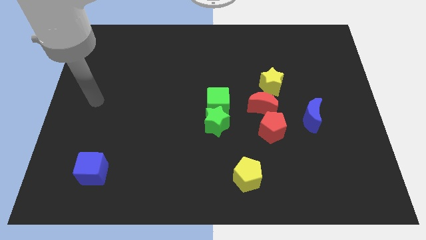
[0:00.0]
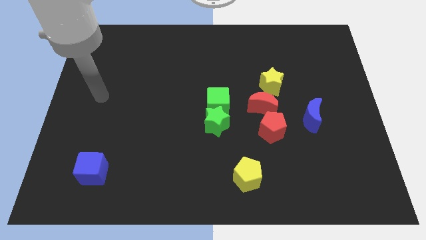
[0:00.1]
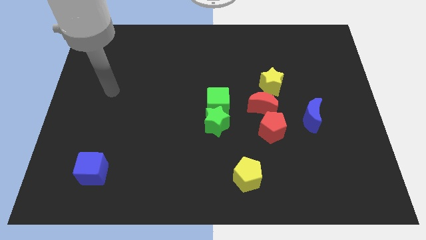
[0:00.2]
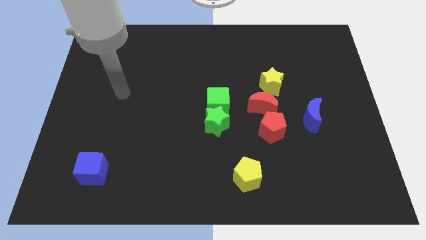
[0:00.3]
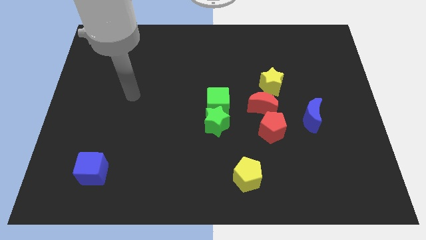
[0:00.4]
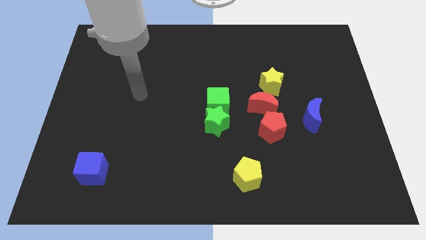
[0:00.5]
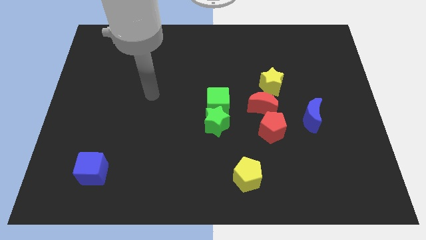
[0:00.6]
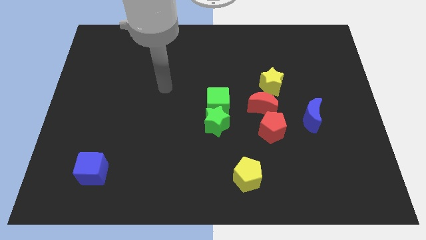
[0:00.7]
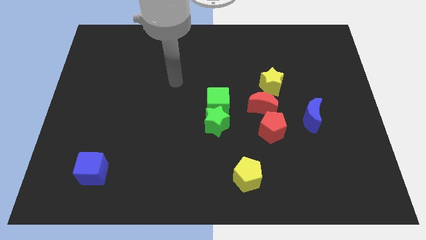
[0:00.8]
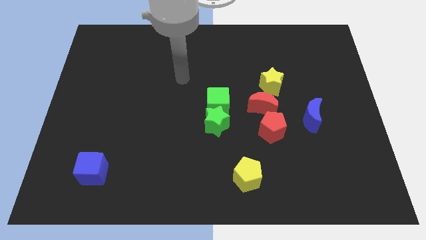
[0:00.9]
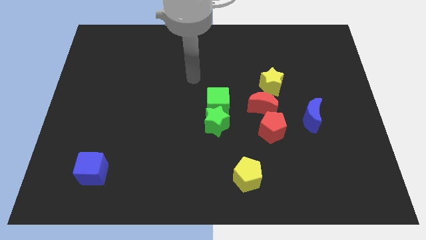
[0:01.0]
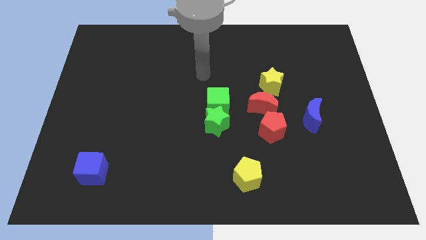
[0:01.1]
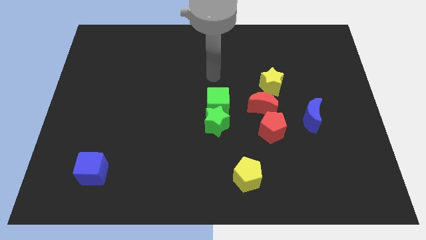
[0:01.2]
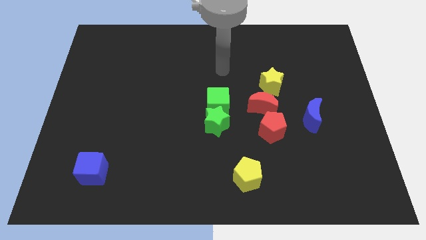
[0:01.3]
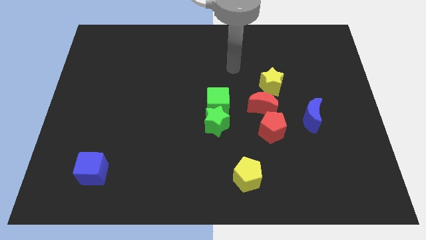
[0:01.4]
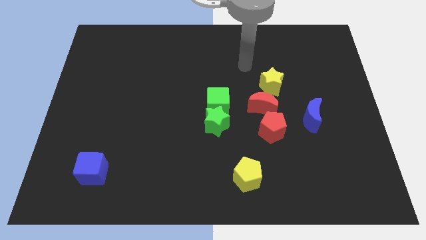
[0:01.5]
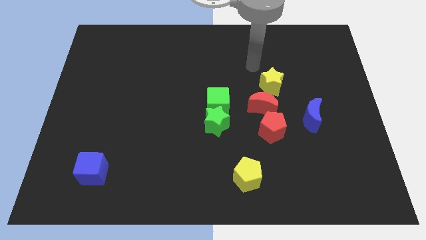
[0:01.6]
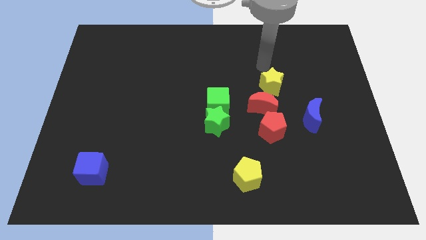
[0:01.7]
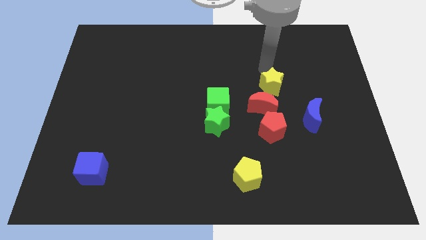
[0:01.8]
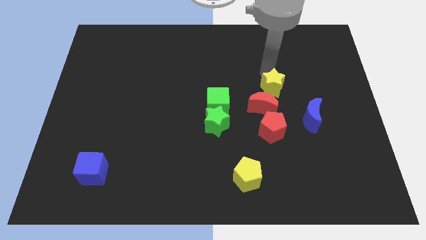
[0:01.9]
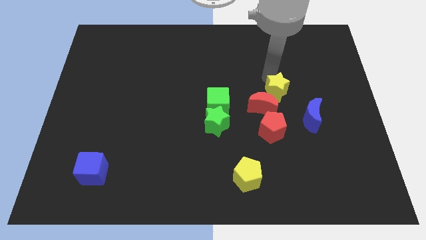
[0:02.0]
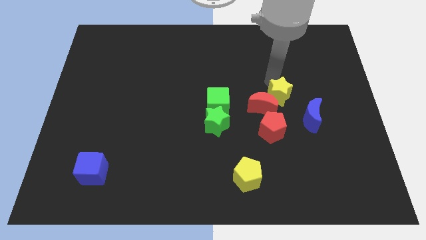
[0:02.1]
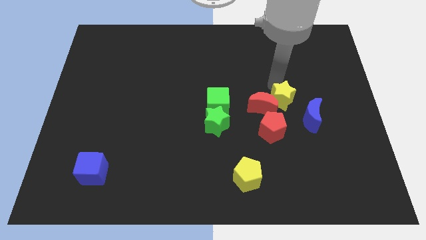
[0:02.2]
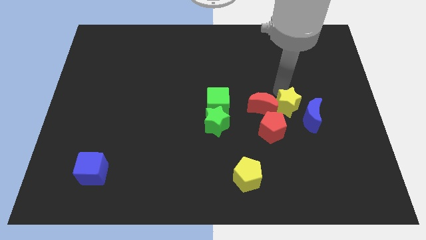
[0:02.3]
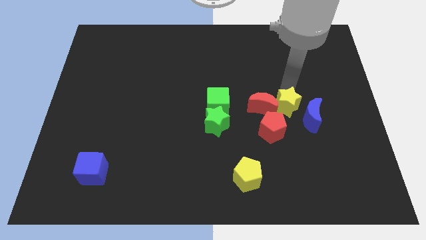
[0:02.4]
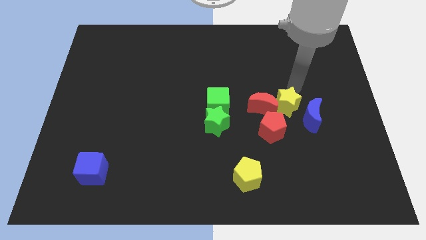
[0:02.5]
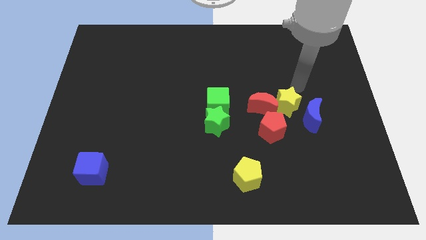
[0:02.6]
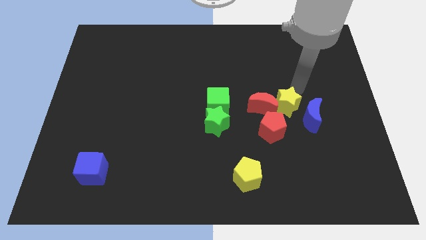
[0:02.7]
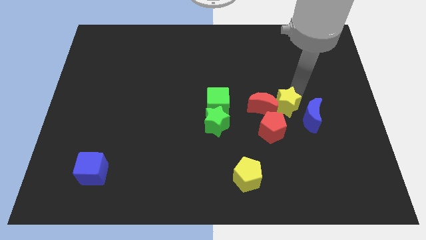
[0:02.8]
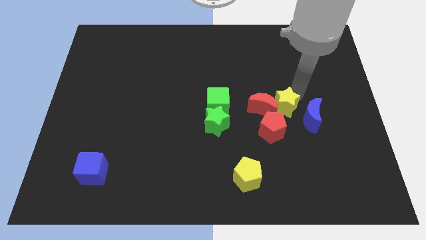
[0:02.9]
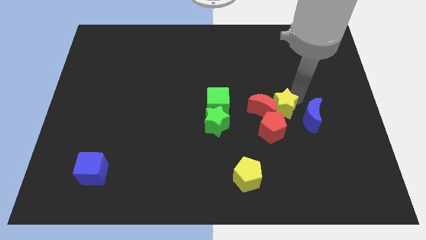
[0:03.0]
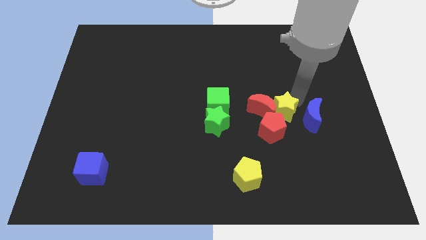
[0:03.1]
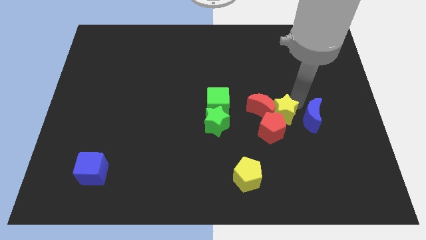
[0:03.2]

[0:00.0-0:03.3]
push the yellow star to the red pentagon

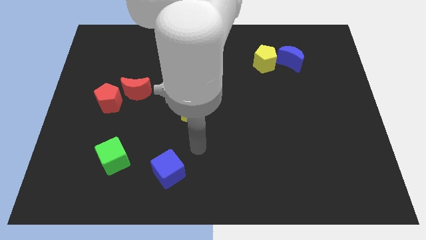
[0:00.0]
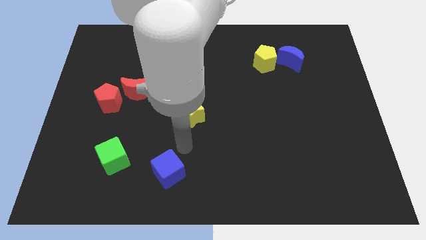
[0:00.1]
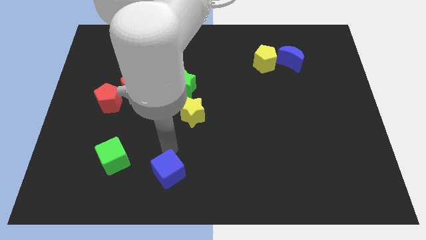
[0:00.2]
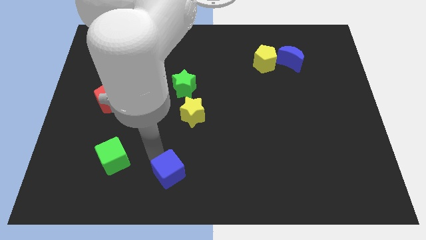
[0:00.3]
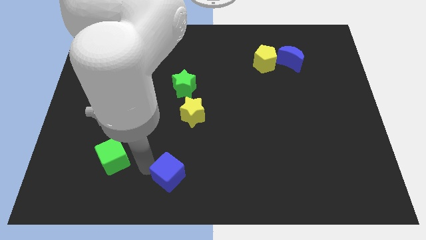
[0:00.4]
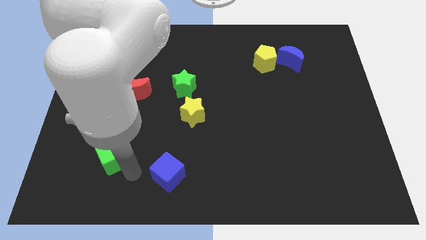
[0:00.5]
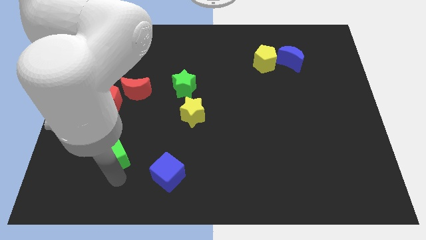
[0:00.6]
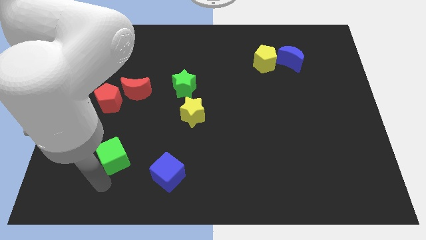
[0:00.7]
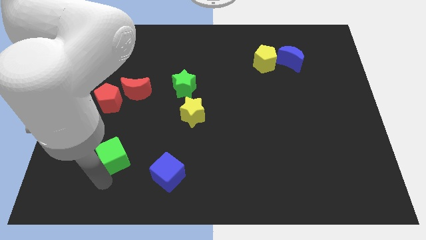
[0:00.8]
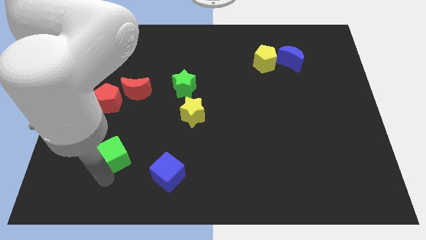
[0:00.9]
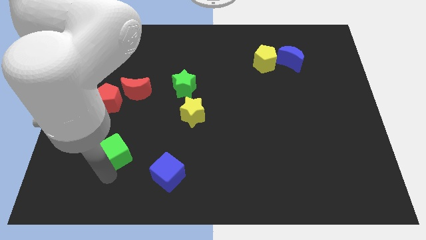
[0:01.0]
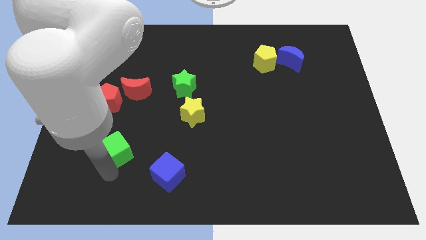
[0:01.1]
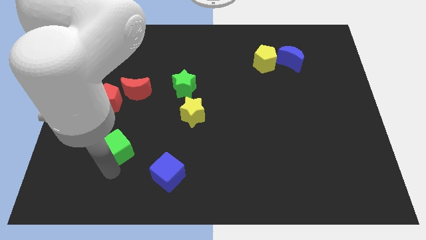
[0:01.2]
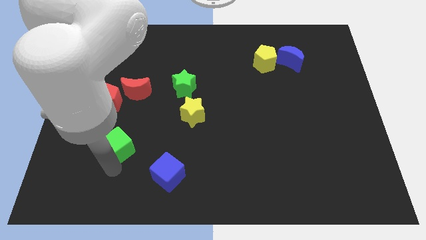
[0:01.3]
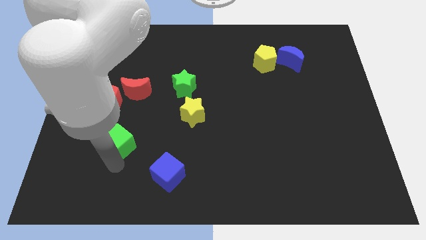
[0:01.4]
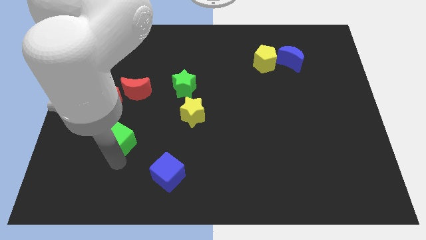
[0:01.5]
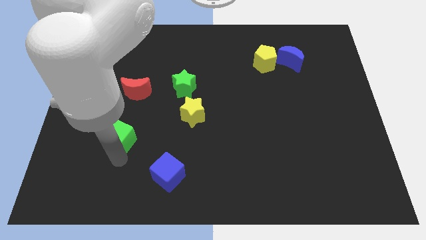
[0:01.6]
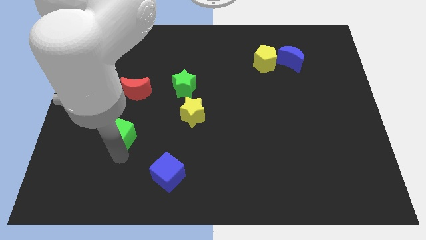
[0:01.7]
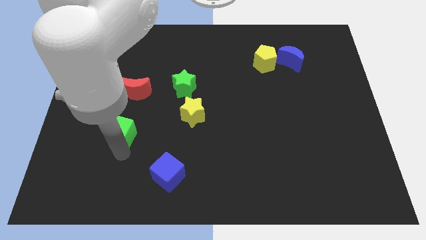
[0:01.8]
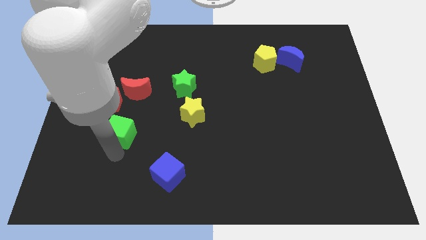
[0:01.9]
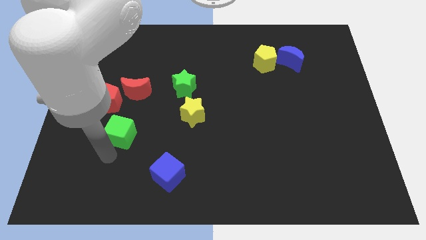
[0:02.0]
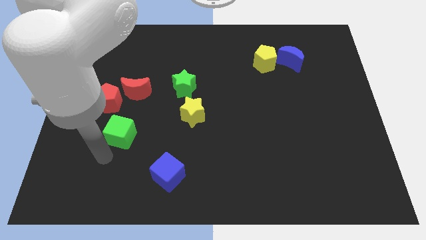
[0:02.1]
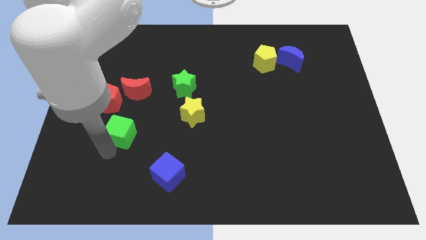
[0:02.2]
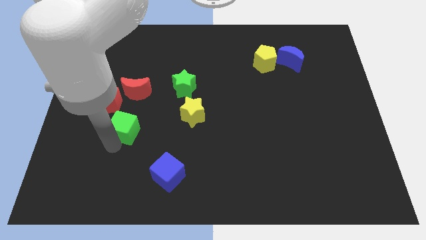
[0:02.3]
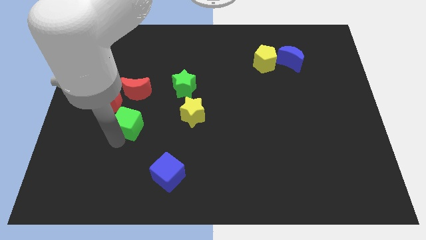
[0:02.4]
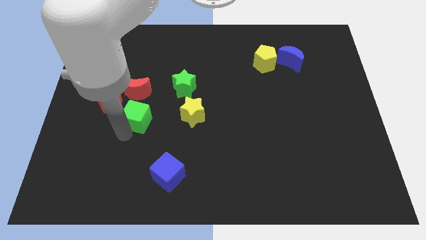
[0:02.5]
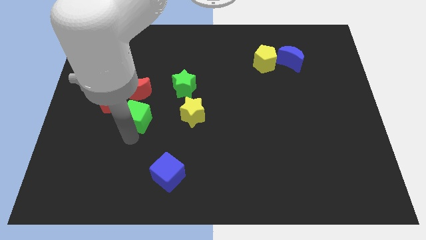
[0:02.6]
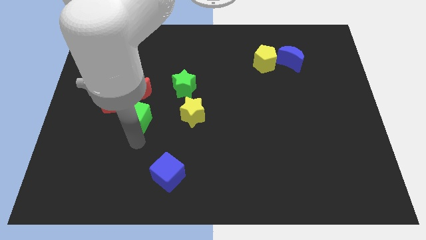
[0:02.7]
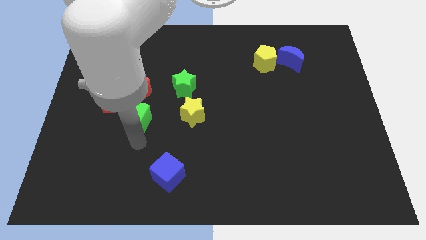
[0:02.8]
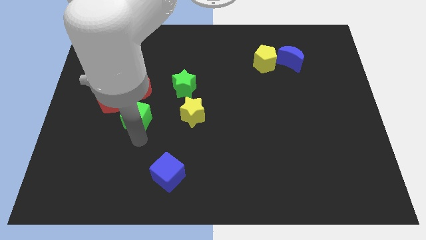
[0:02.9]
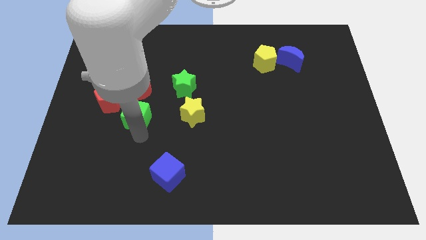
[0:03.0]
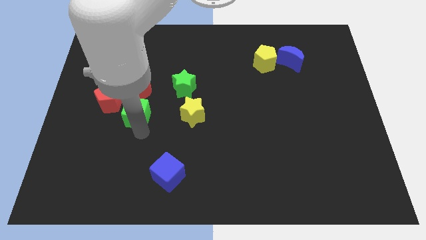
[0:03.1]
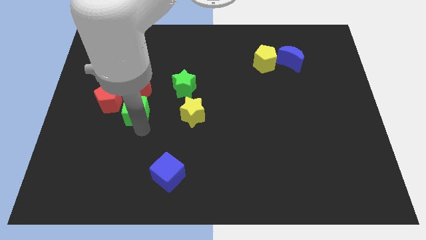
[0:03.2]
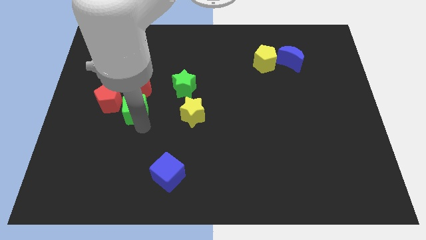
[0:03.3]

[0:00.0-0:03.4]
slide the green cube next to the red moon

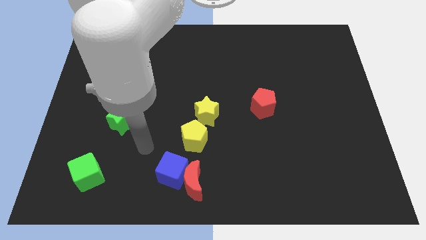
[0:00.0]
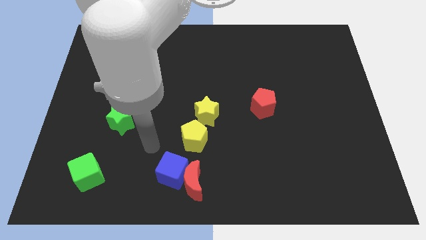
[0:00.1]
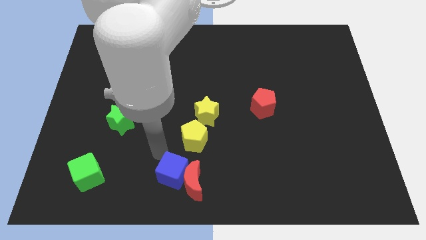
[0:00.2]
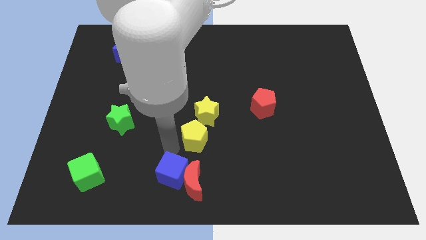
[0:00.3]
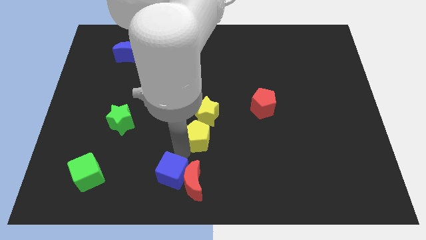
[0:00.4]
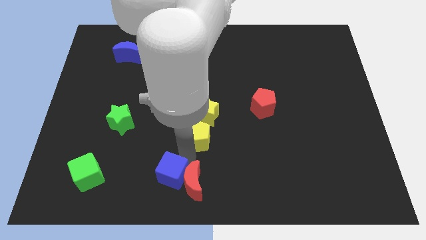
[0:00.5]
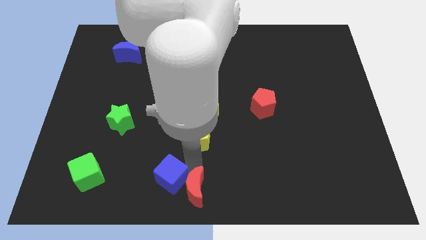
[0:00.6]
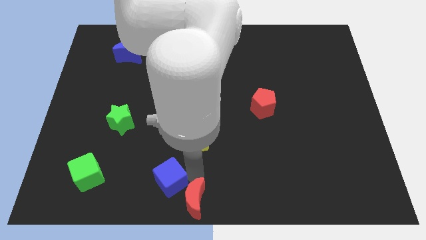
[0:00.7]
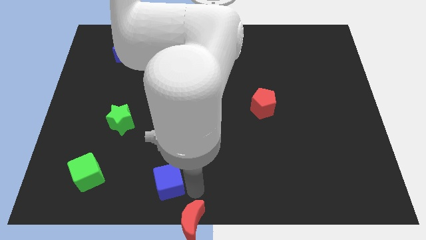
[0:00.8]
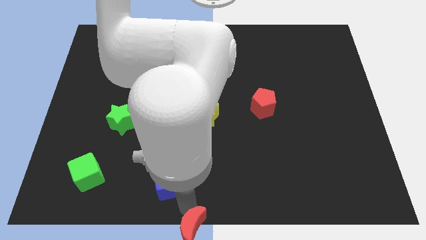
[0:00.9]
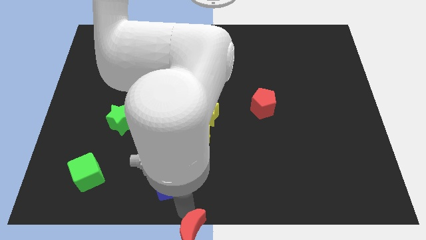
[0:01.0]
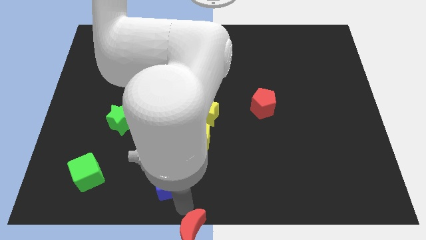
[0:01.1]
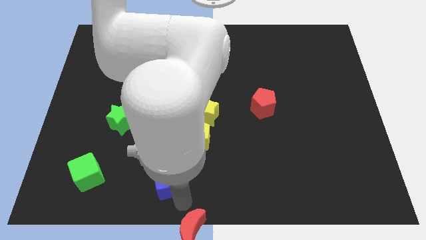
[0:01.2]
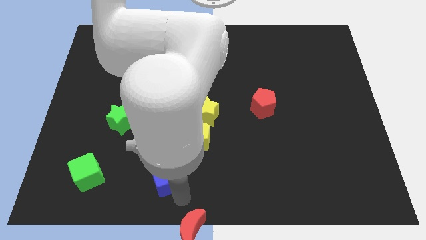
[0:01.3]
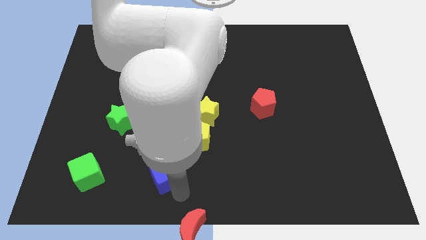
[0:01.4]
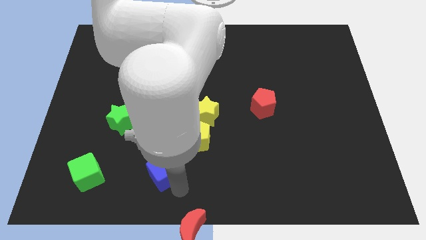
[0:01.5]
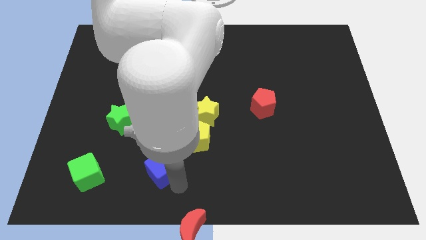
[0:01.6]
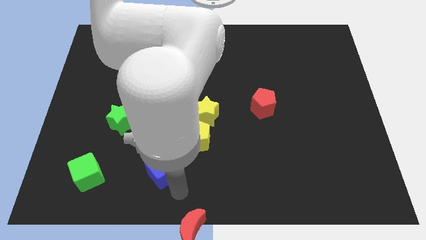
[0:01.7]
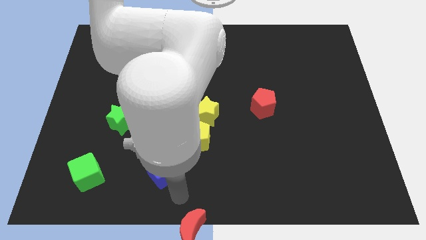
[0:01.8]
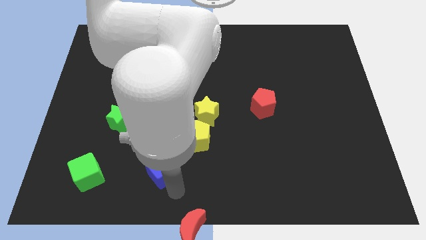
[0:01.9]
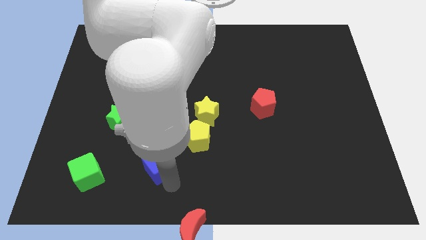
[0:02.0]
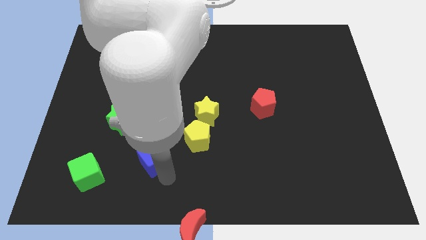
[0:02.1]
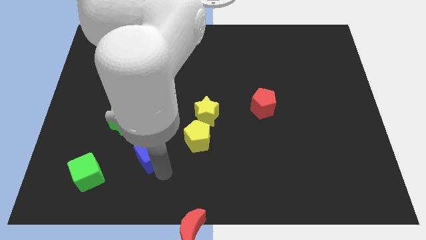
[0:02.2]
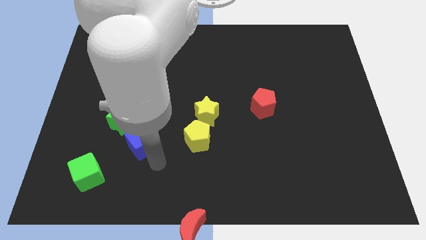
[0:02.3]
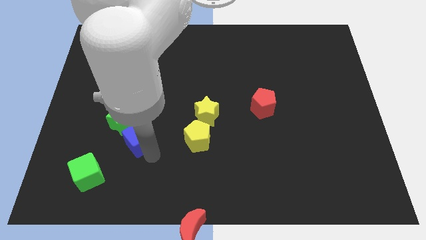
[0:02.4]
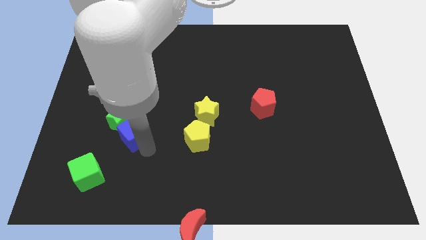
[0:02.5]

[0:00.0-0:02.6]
move the blue cube close to the green star
